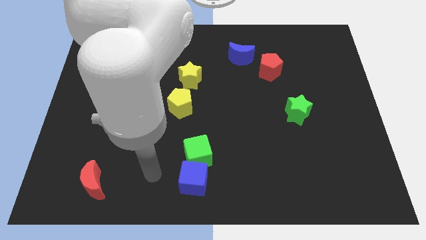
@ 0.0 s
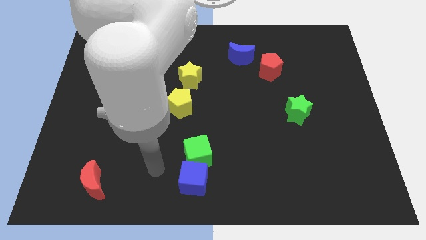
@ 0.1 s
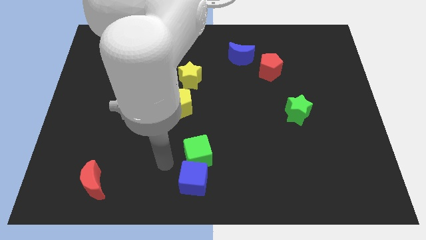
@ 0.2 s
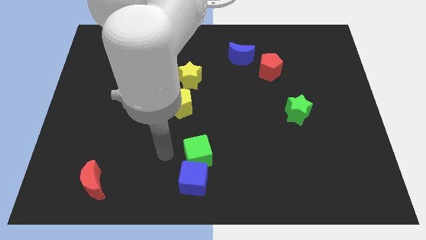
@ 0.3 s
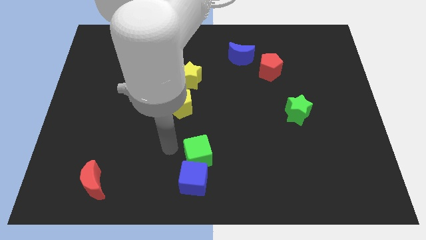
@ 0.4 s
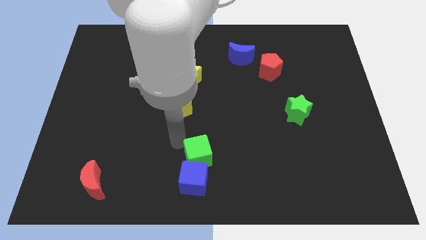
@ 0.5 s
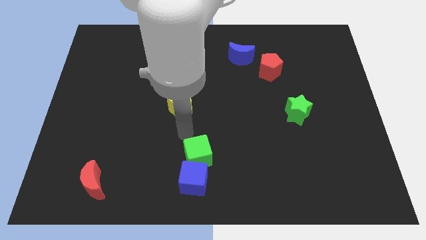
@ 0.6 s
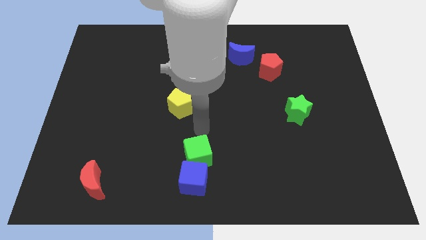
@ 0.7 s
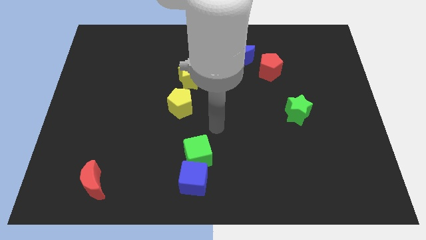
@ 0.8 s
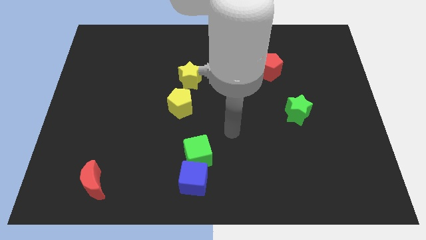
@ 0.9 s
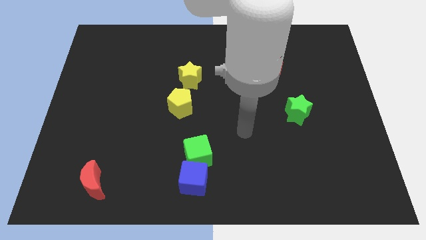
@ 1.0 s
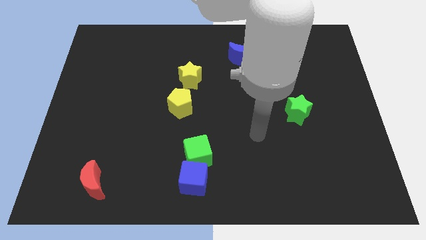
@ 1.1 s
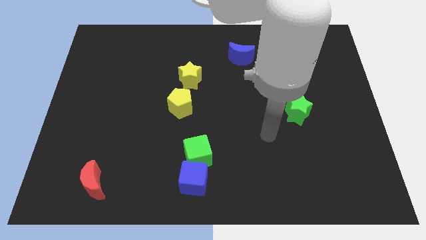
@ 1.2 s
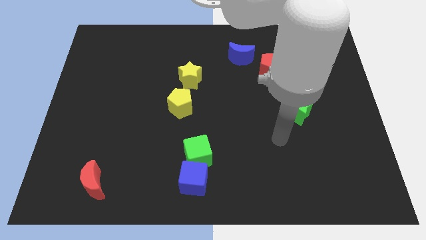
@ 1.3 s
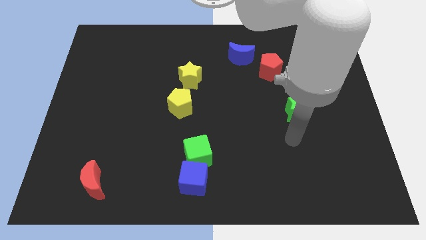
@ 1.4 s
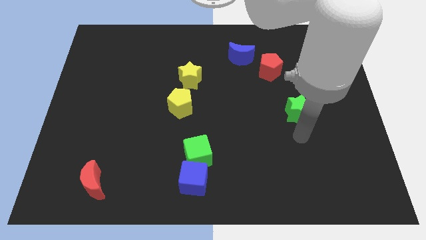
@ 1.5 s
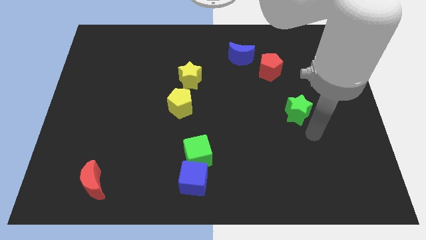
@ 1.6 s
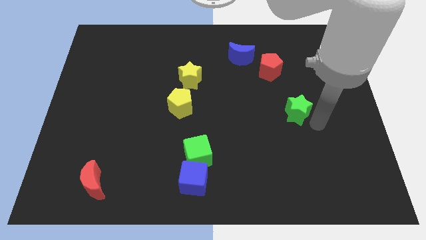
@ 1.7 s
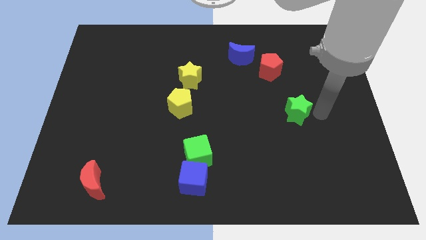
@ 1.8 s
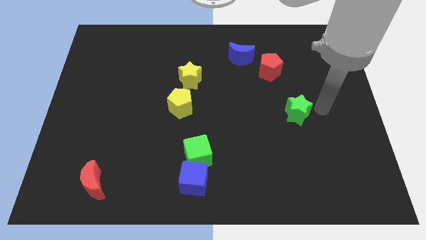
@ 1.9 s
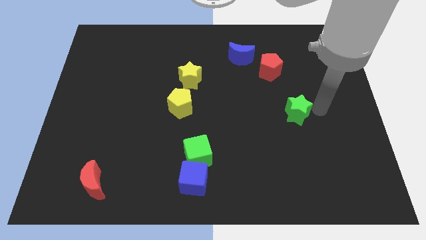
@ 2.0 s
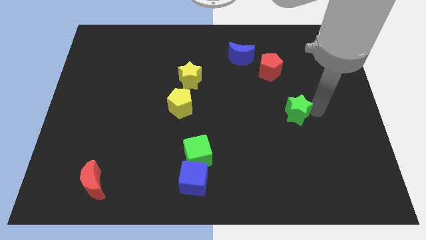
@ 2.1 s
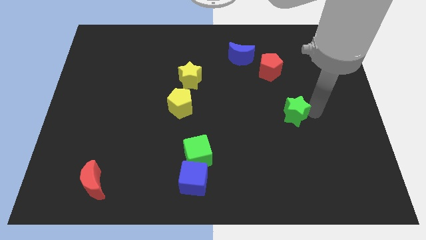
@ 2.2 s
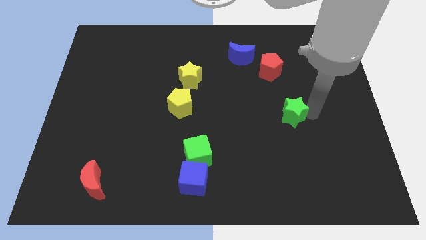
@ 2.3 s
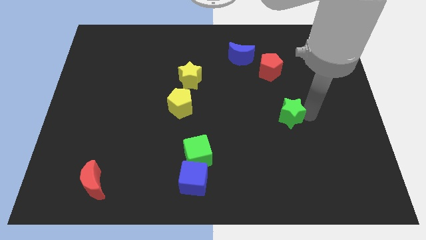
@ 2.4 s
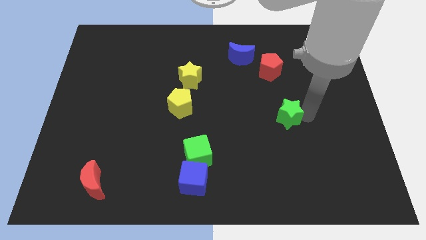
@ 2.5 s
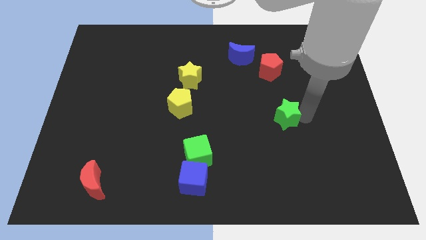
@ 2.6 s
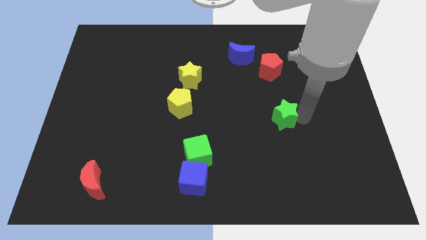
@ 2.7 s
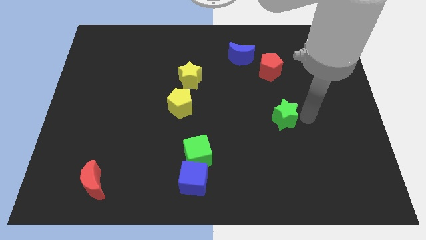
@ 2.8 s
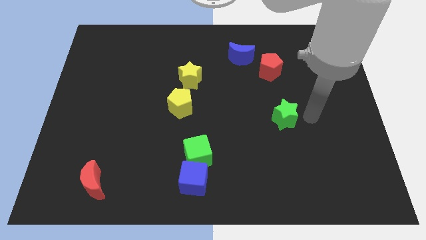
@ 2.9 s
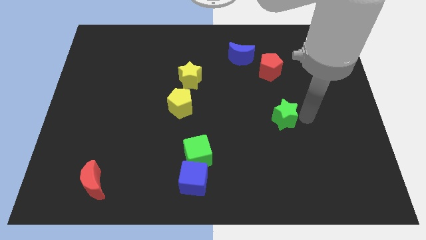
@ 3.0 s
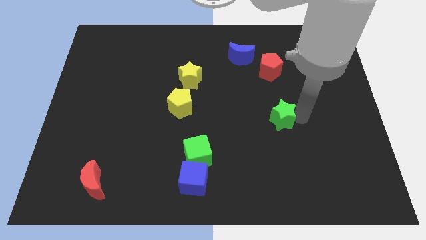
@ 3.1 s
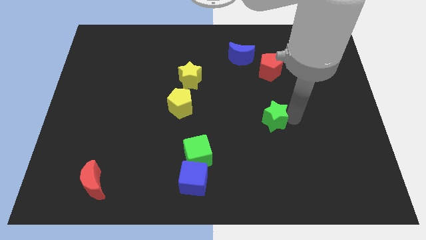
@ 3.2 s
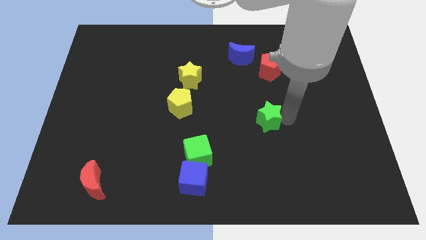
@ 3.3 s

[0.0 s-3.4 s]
push the green star to the left a little bit

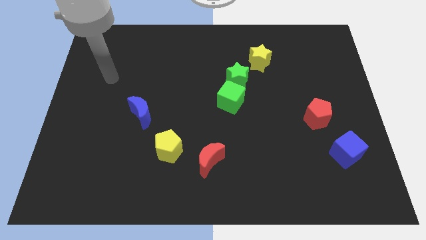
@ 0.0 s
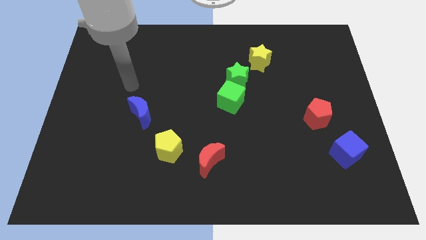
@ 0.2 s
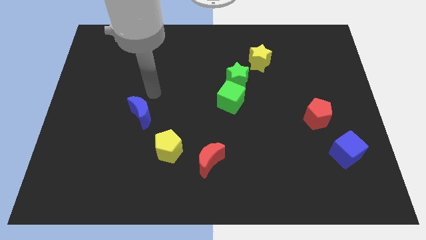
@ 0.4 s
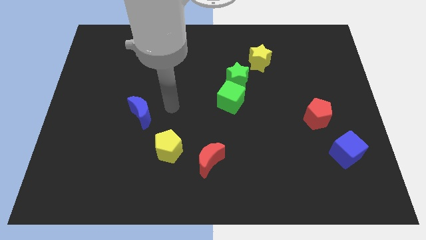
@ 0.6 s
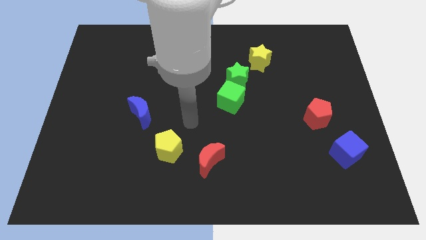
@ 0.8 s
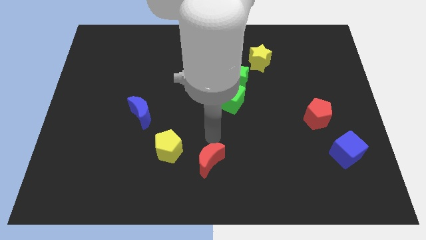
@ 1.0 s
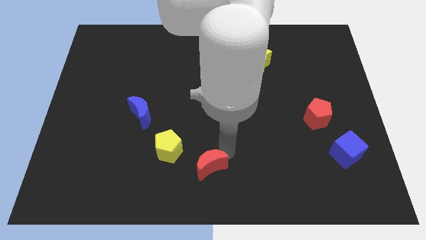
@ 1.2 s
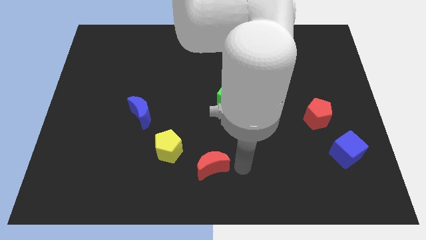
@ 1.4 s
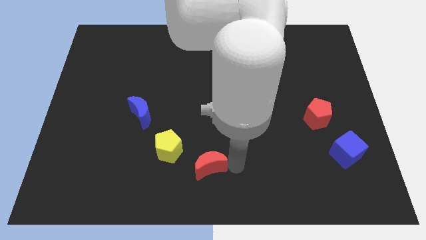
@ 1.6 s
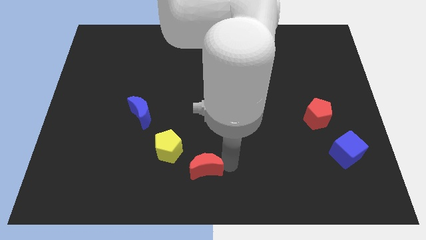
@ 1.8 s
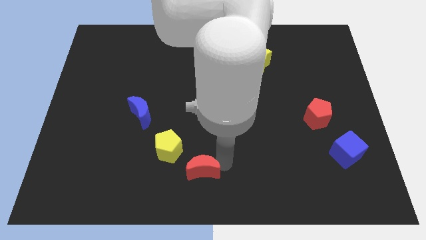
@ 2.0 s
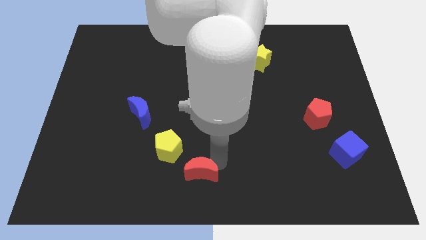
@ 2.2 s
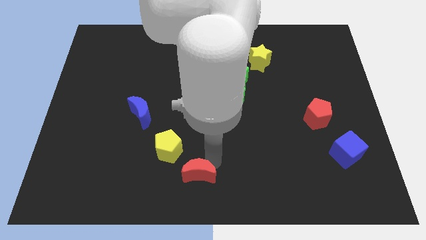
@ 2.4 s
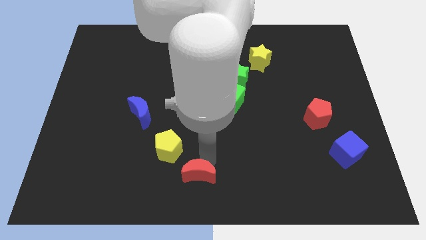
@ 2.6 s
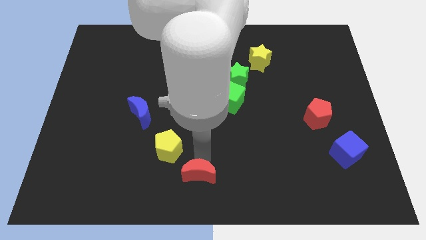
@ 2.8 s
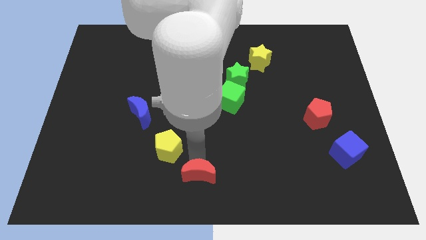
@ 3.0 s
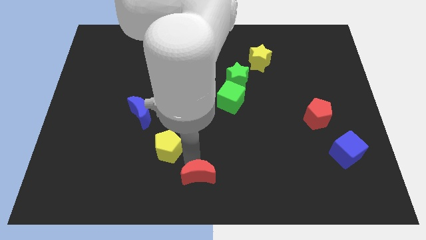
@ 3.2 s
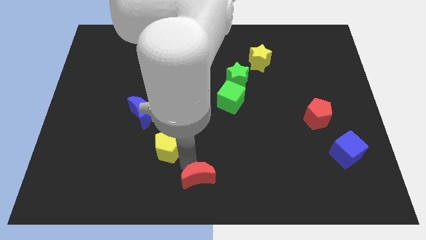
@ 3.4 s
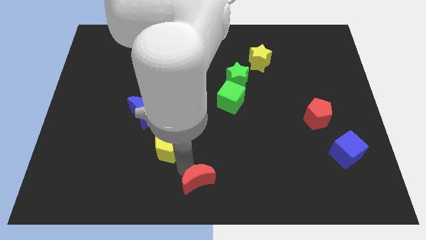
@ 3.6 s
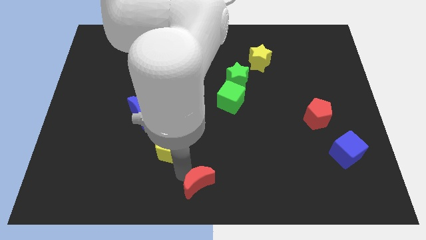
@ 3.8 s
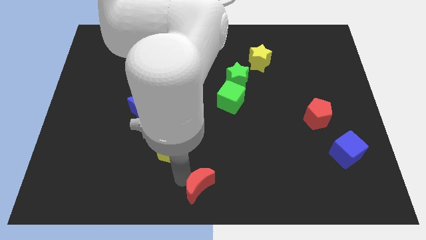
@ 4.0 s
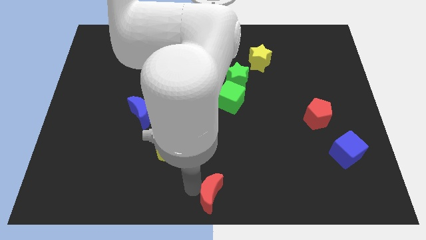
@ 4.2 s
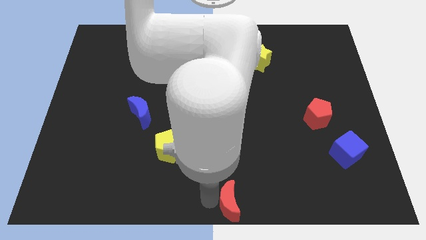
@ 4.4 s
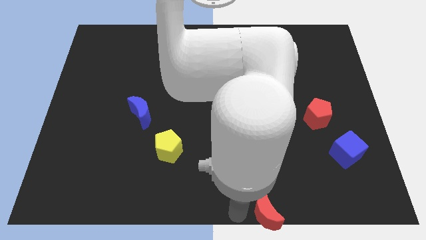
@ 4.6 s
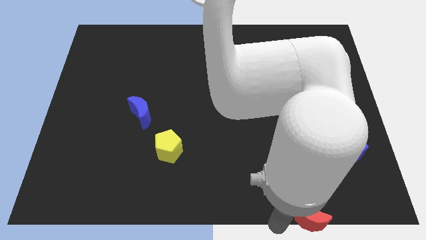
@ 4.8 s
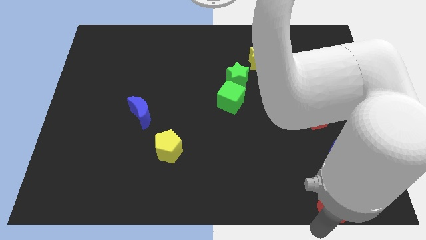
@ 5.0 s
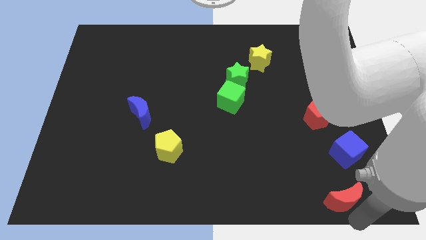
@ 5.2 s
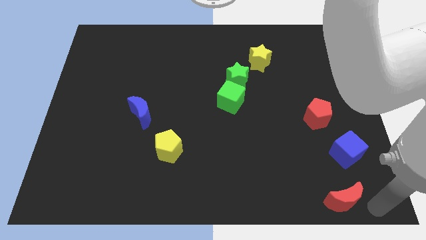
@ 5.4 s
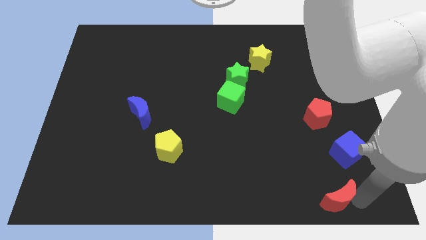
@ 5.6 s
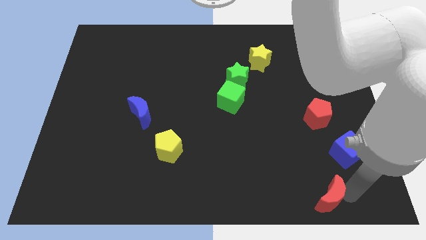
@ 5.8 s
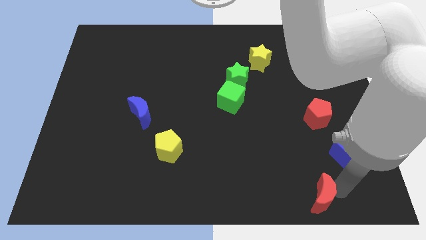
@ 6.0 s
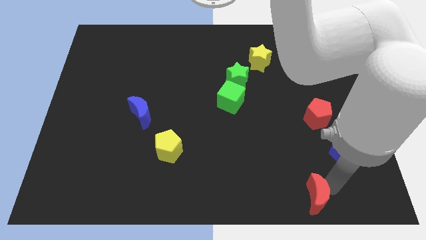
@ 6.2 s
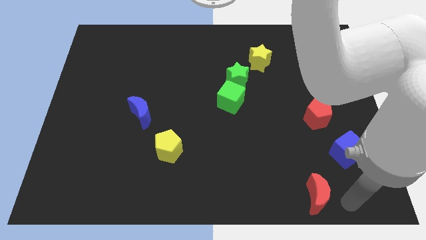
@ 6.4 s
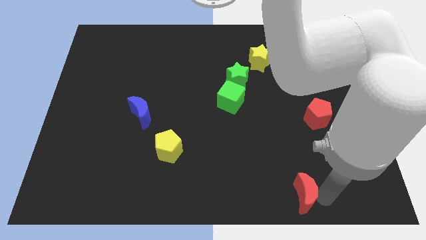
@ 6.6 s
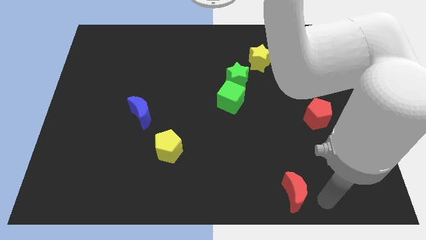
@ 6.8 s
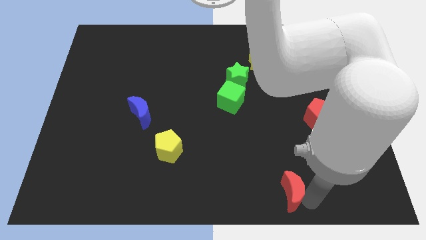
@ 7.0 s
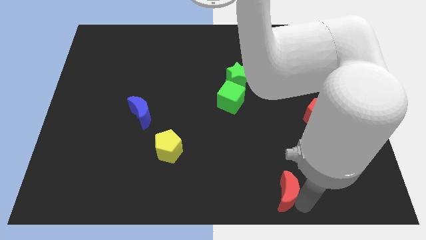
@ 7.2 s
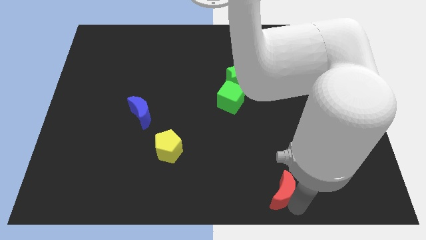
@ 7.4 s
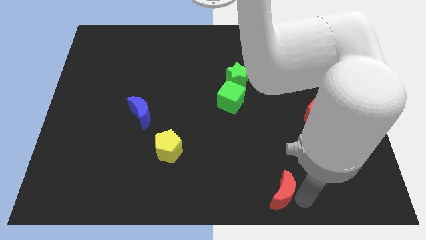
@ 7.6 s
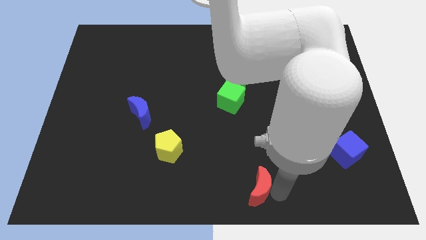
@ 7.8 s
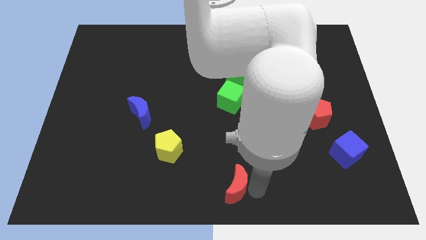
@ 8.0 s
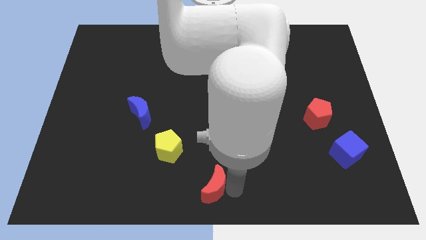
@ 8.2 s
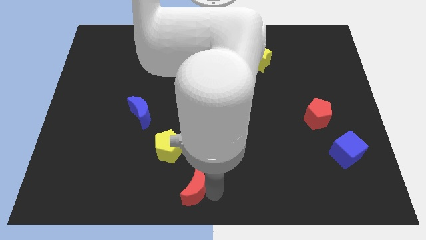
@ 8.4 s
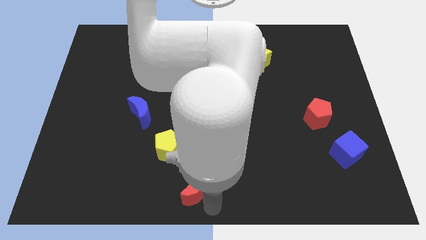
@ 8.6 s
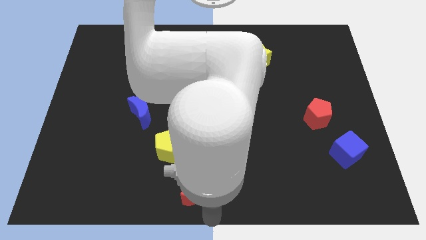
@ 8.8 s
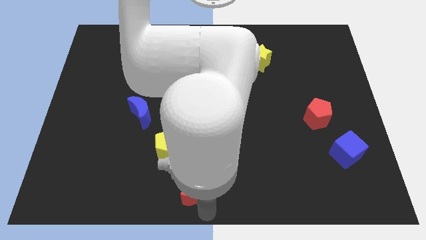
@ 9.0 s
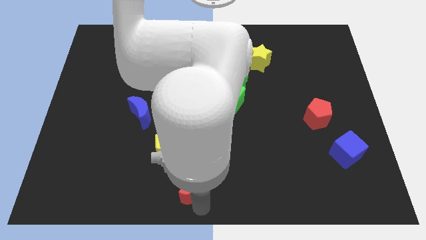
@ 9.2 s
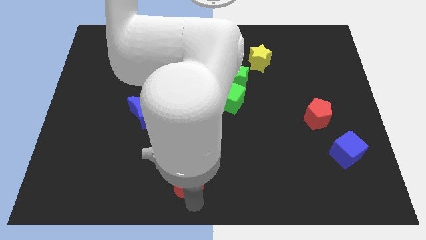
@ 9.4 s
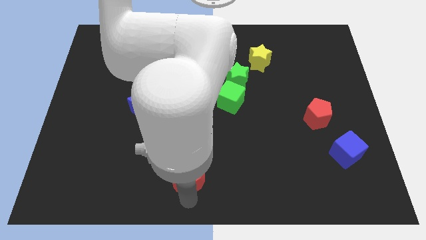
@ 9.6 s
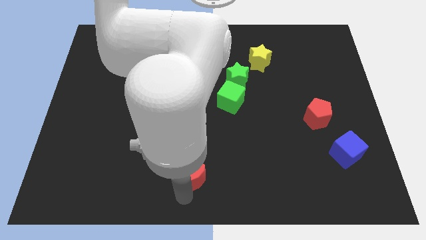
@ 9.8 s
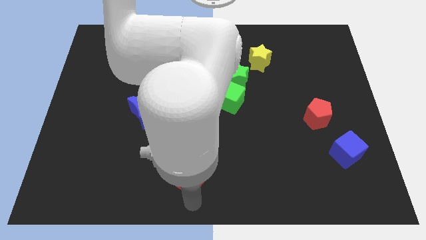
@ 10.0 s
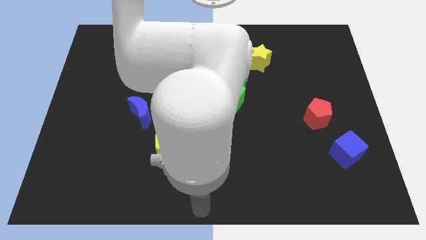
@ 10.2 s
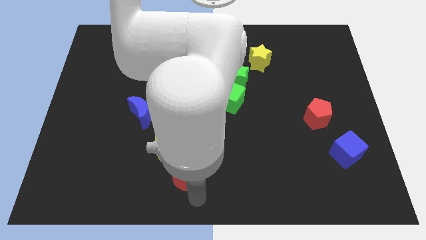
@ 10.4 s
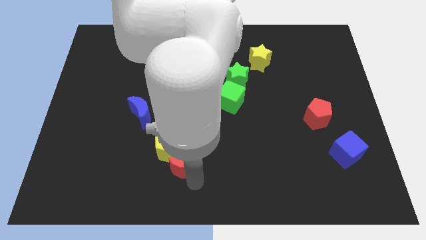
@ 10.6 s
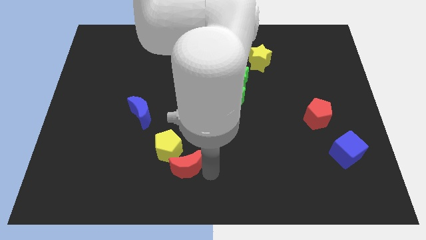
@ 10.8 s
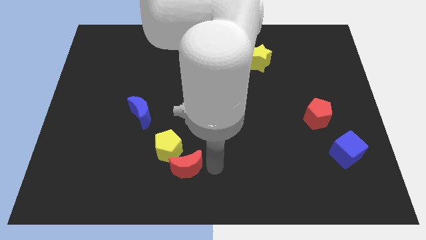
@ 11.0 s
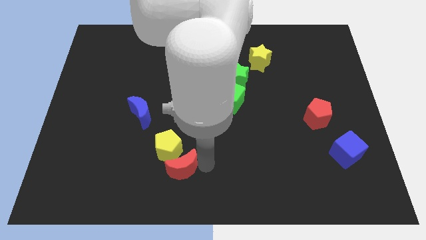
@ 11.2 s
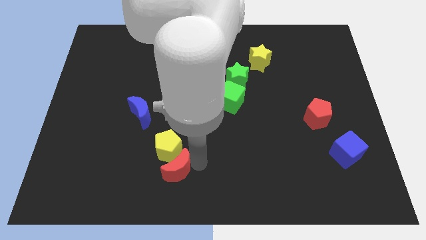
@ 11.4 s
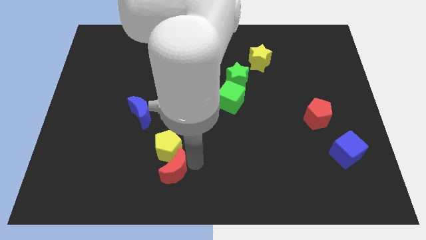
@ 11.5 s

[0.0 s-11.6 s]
push the red moon a bit left
